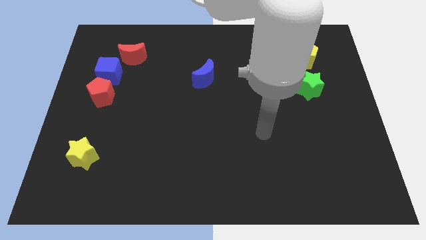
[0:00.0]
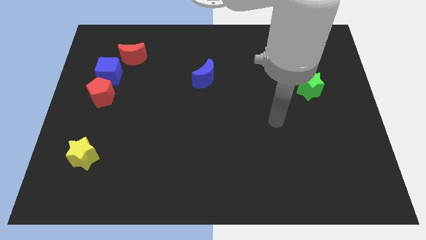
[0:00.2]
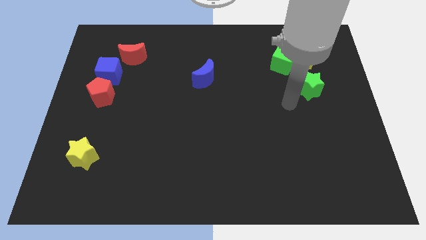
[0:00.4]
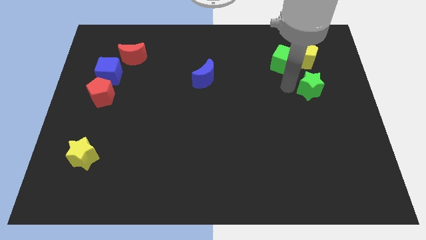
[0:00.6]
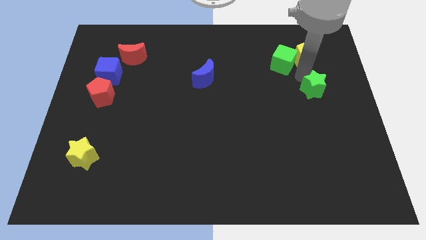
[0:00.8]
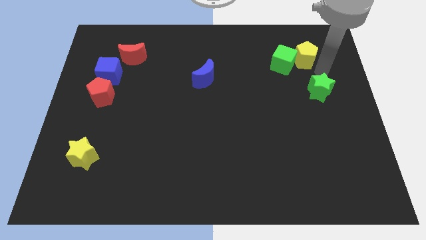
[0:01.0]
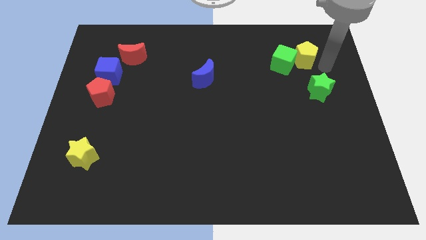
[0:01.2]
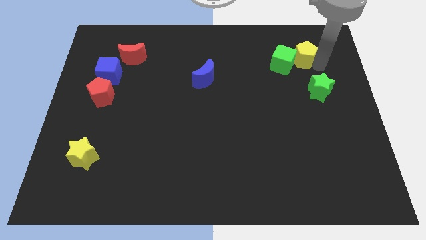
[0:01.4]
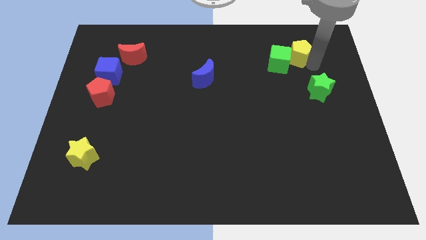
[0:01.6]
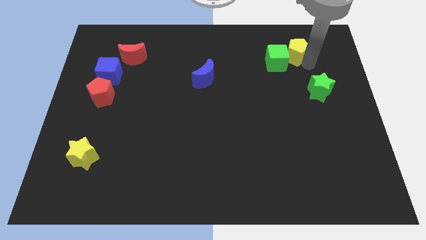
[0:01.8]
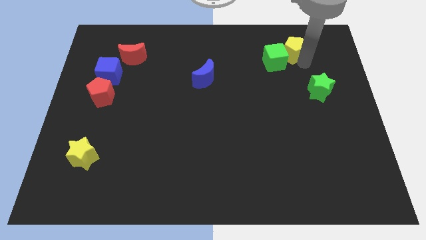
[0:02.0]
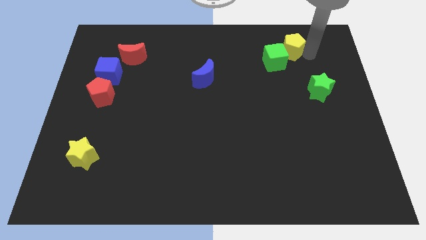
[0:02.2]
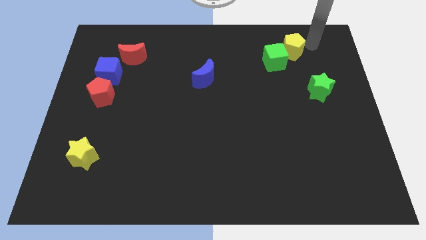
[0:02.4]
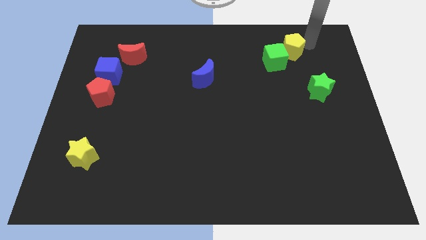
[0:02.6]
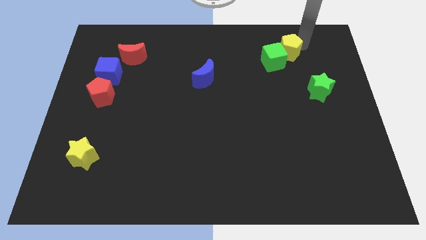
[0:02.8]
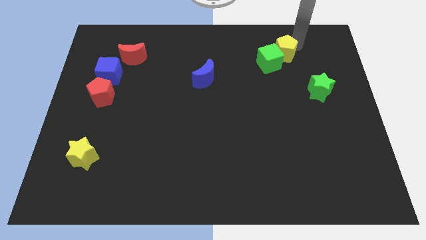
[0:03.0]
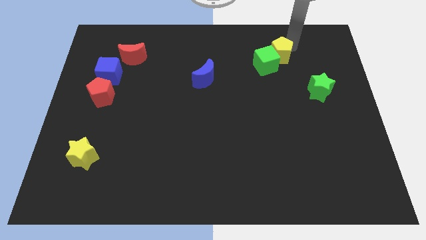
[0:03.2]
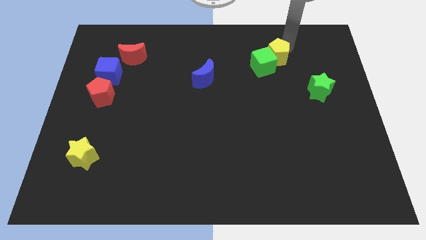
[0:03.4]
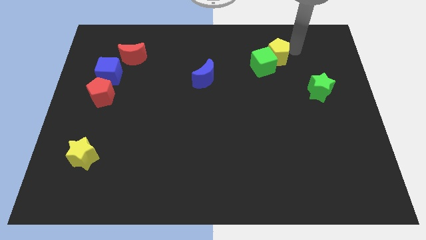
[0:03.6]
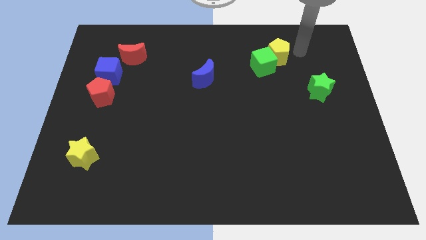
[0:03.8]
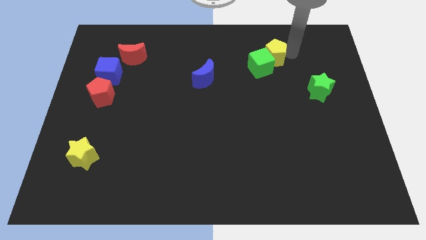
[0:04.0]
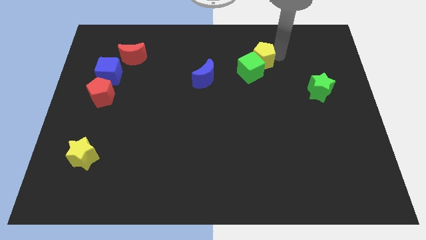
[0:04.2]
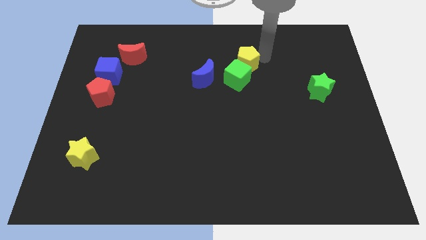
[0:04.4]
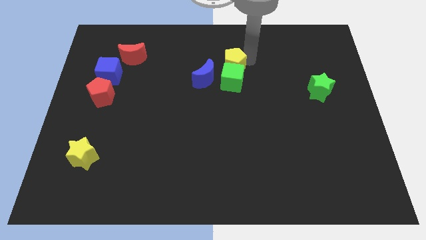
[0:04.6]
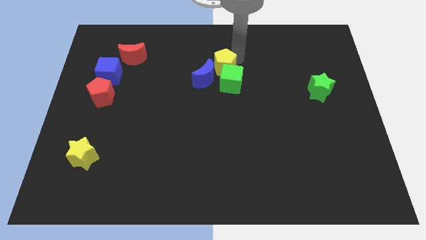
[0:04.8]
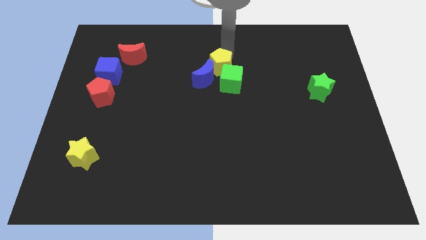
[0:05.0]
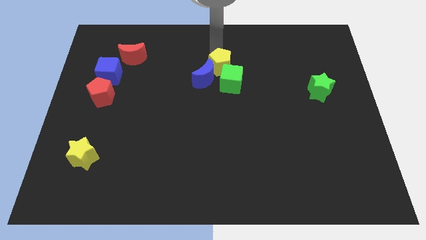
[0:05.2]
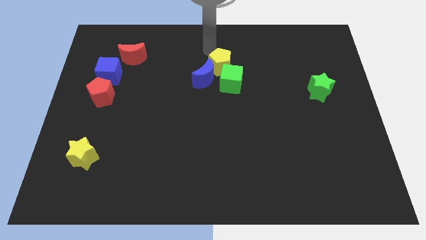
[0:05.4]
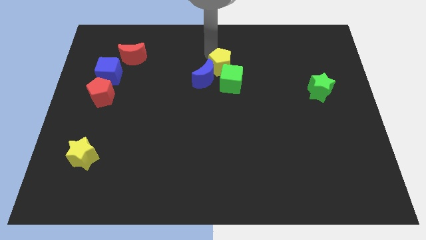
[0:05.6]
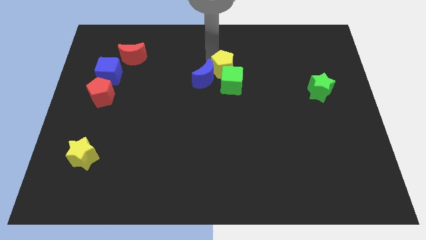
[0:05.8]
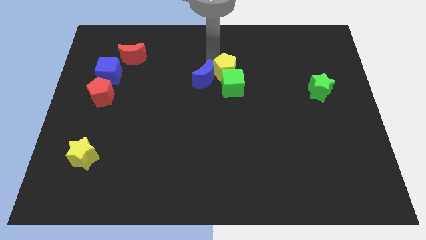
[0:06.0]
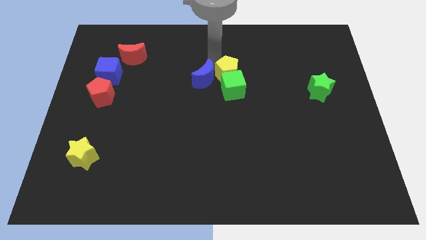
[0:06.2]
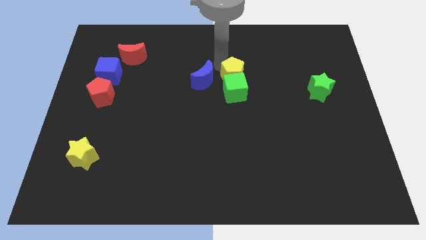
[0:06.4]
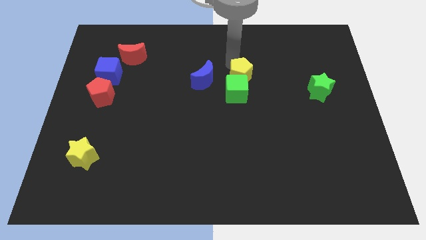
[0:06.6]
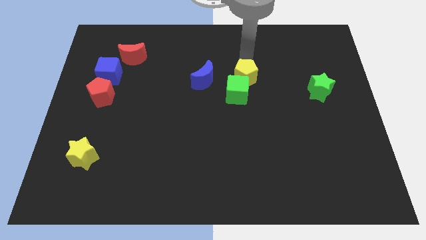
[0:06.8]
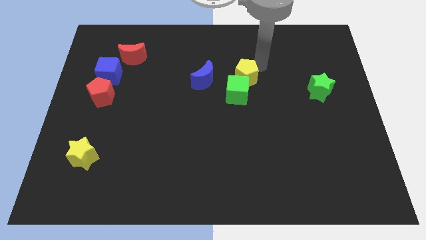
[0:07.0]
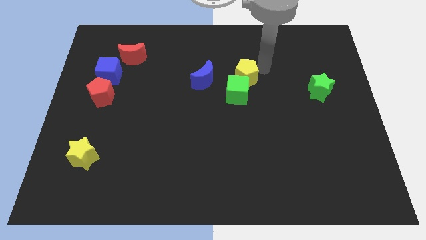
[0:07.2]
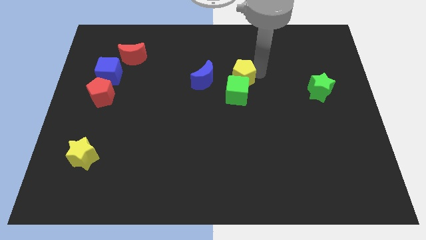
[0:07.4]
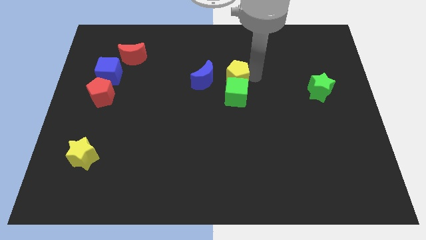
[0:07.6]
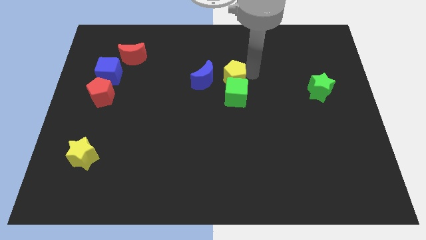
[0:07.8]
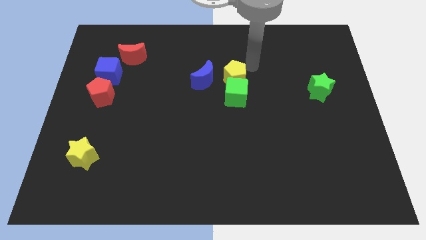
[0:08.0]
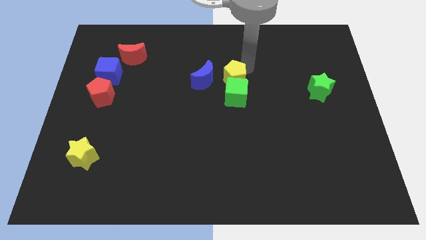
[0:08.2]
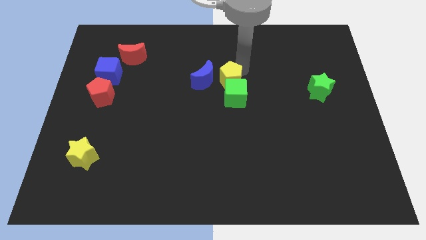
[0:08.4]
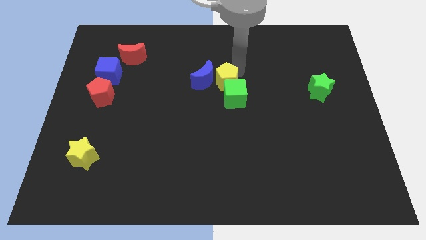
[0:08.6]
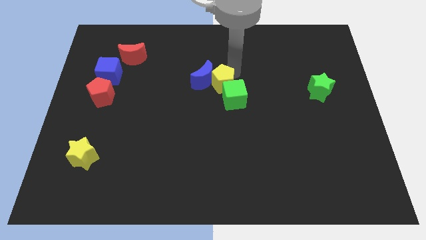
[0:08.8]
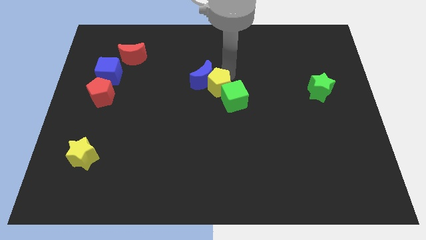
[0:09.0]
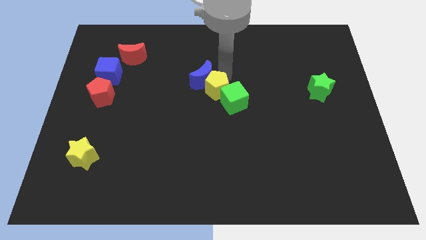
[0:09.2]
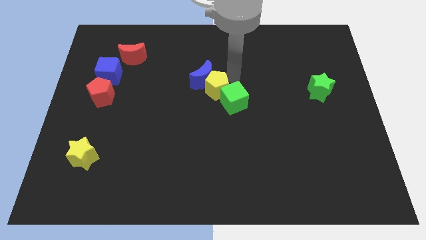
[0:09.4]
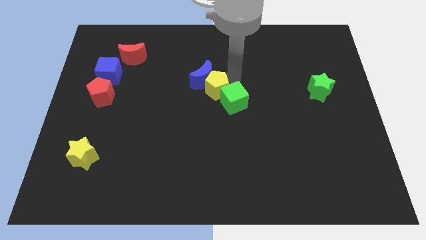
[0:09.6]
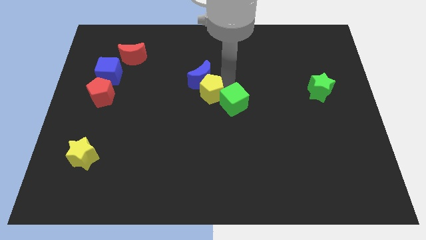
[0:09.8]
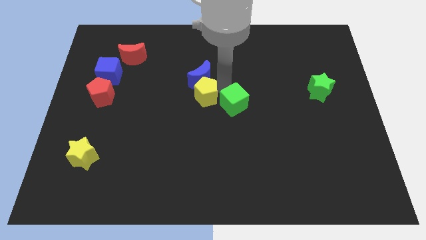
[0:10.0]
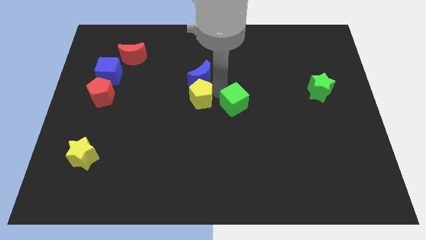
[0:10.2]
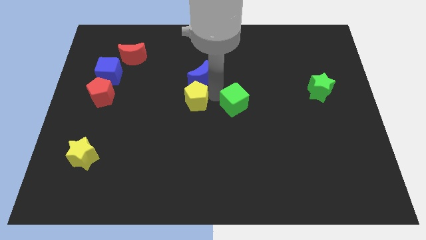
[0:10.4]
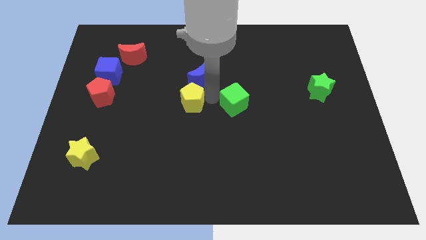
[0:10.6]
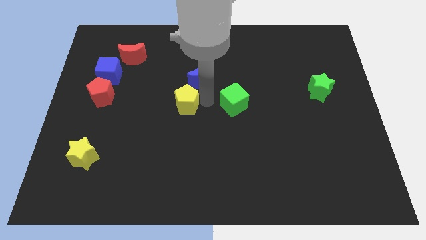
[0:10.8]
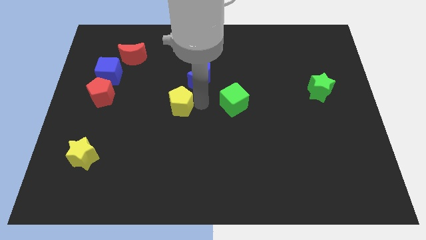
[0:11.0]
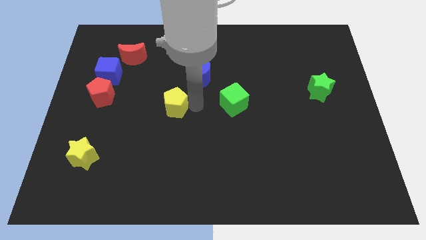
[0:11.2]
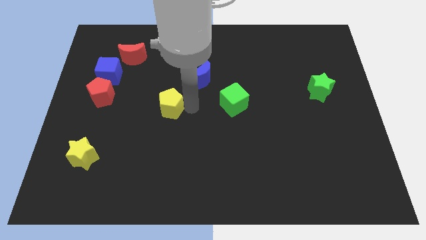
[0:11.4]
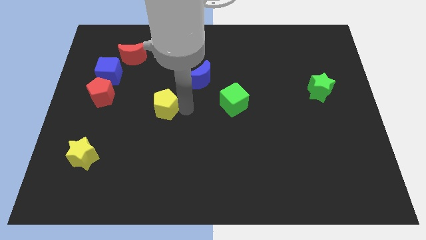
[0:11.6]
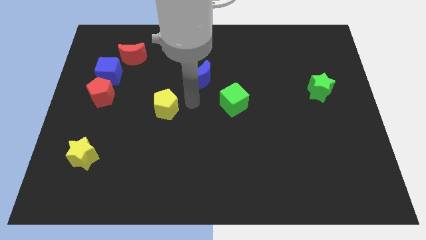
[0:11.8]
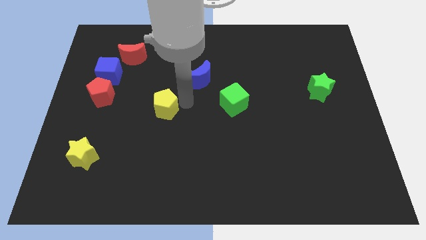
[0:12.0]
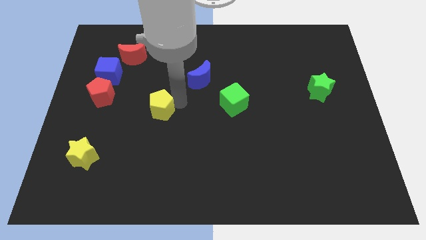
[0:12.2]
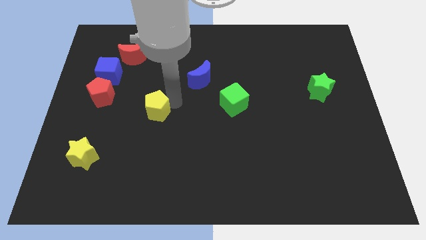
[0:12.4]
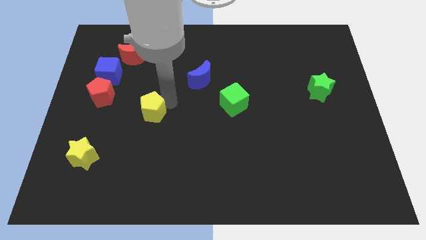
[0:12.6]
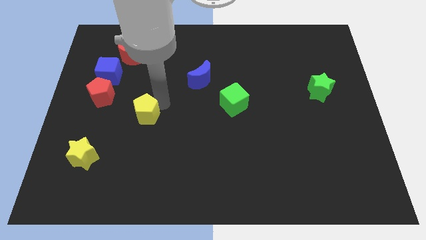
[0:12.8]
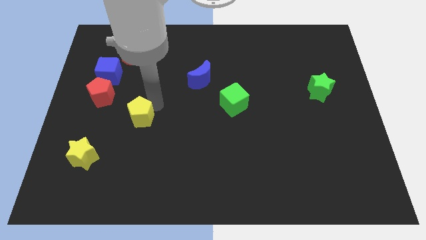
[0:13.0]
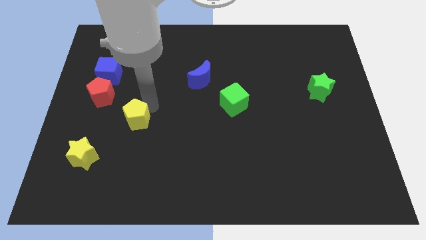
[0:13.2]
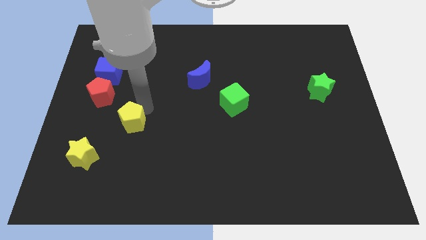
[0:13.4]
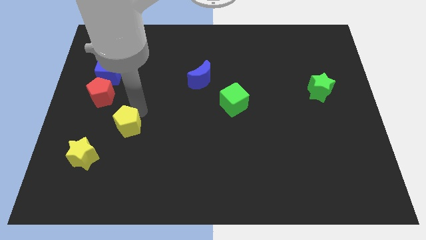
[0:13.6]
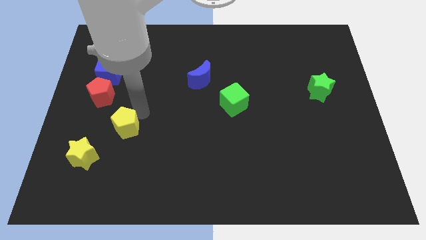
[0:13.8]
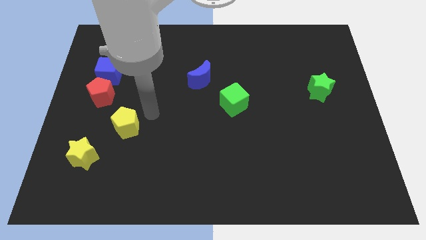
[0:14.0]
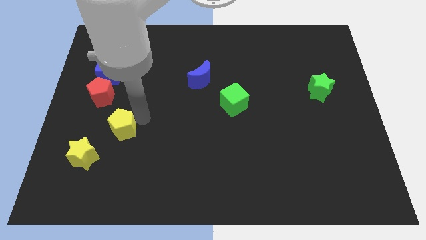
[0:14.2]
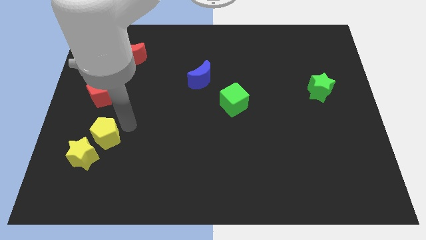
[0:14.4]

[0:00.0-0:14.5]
slide the yellow pentagon next to the yellow star

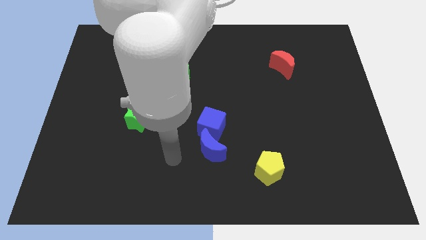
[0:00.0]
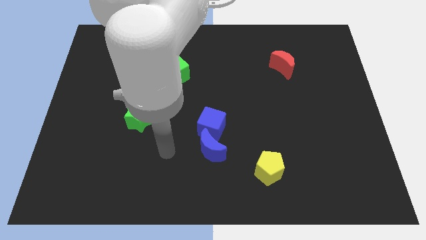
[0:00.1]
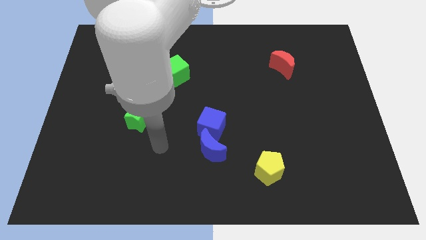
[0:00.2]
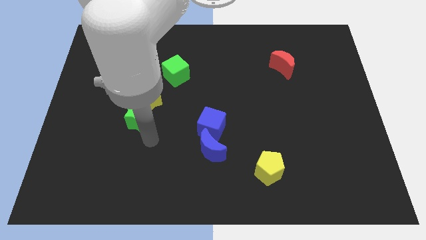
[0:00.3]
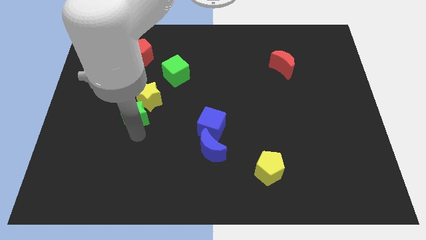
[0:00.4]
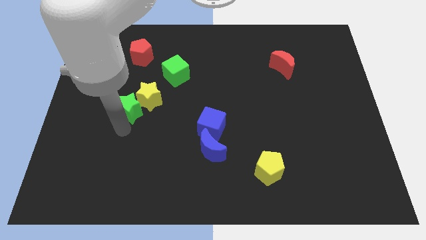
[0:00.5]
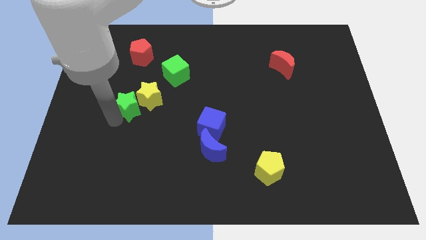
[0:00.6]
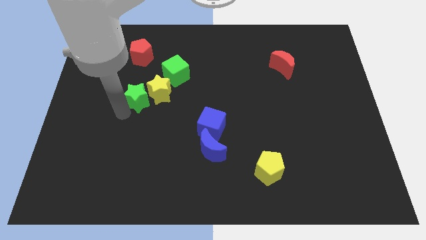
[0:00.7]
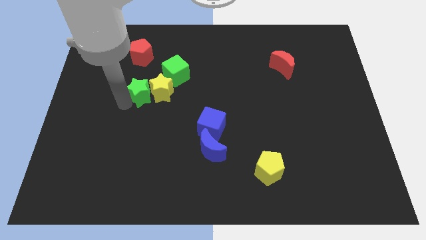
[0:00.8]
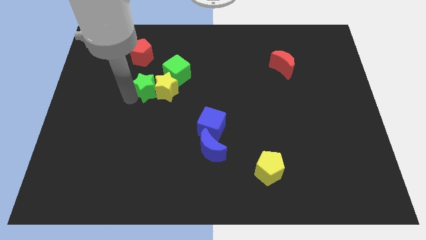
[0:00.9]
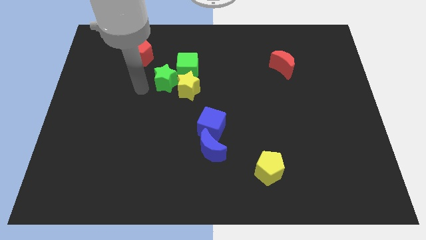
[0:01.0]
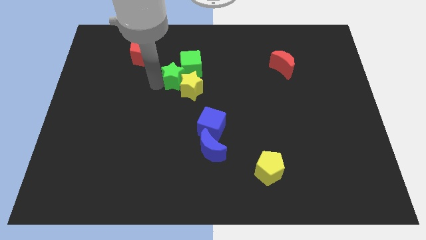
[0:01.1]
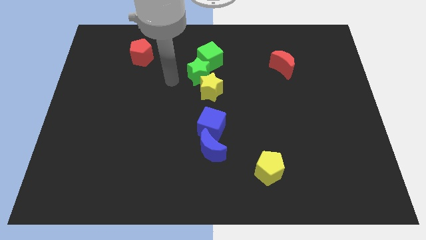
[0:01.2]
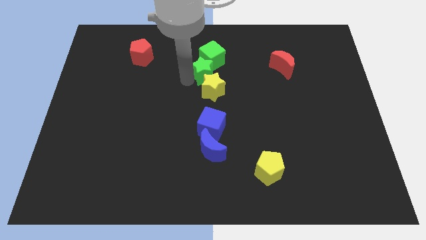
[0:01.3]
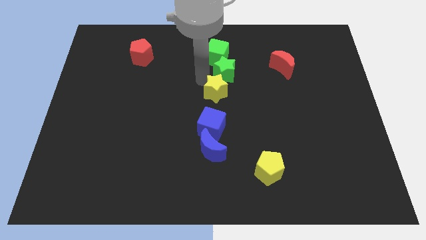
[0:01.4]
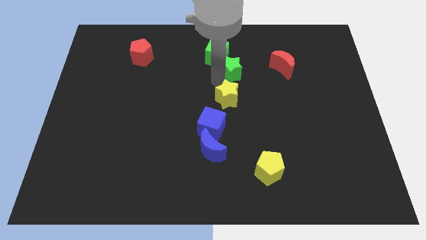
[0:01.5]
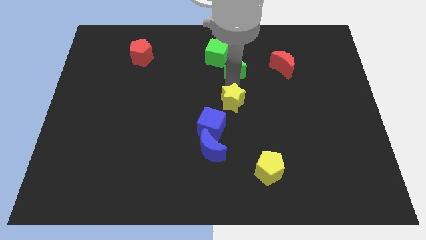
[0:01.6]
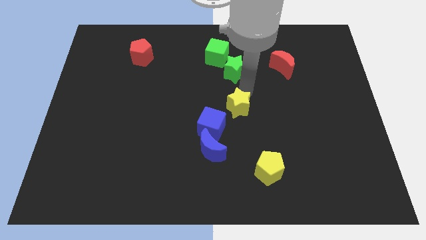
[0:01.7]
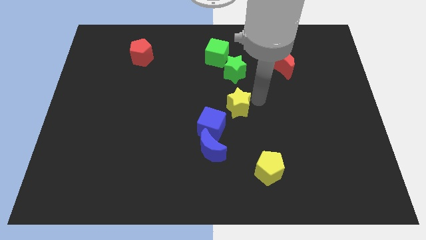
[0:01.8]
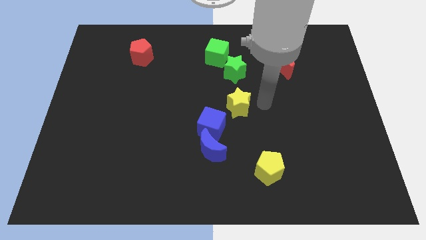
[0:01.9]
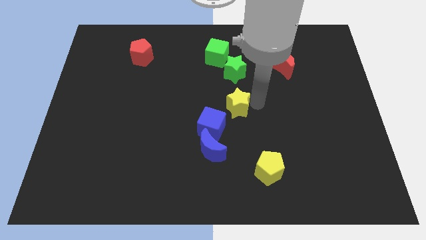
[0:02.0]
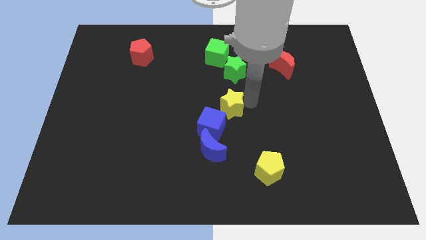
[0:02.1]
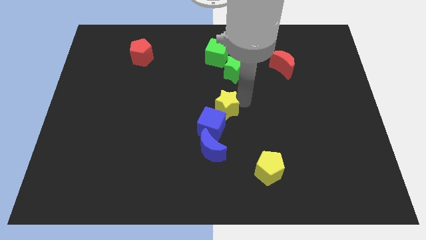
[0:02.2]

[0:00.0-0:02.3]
push the yellow star close to the blue cube
